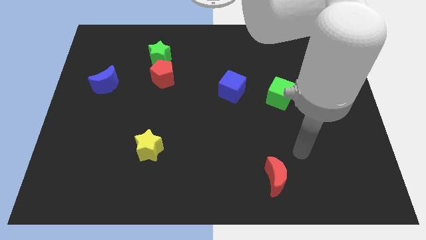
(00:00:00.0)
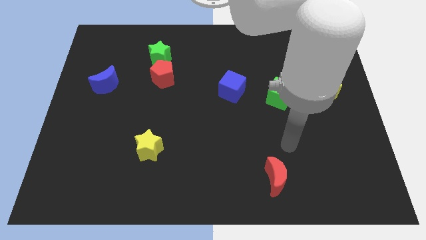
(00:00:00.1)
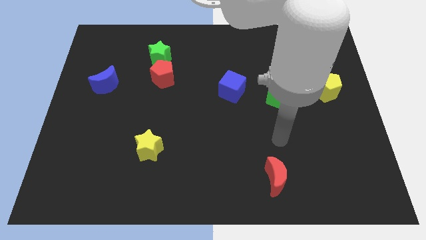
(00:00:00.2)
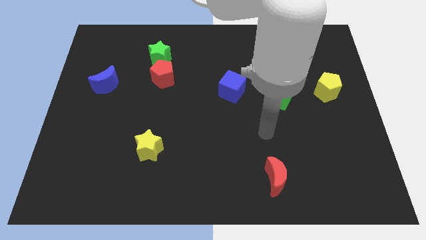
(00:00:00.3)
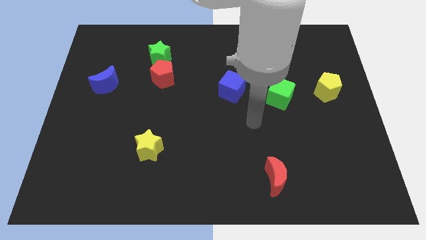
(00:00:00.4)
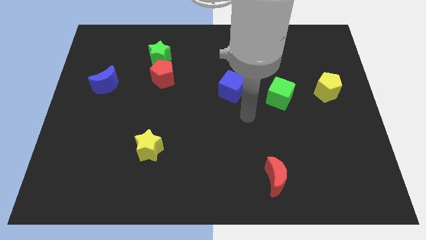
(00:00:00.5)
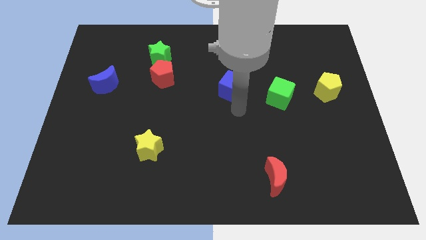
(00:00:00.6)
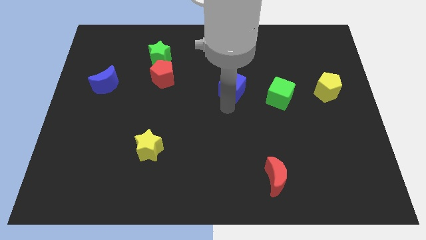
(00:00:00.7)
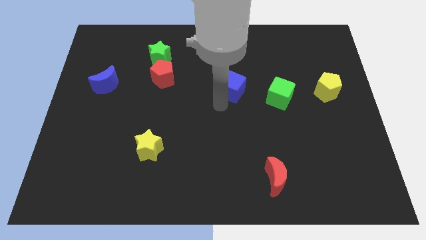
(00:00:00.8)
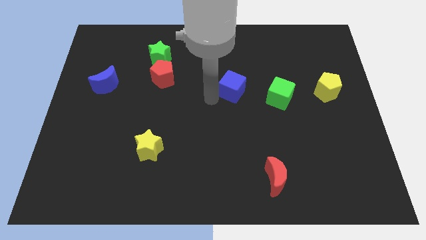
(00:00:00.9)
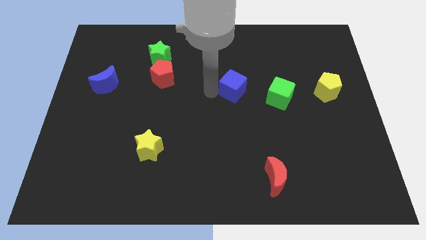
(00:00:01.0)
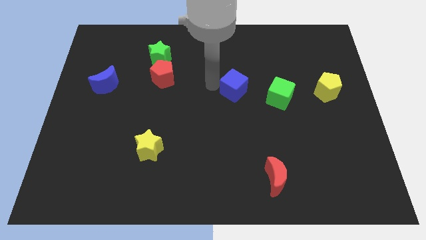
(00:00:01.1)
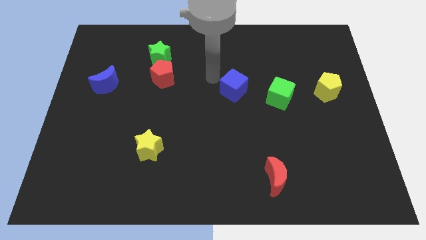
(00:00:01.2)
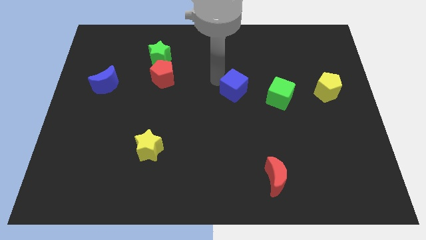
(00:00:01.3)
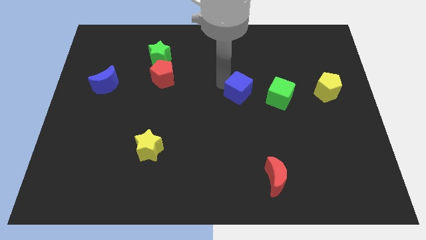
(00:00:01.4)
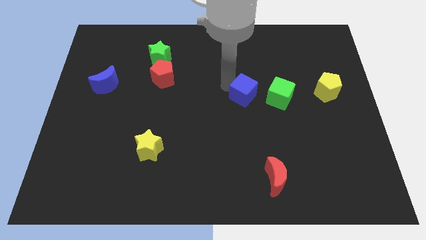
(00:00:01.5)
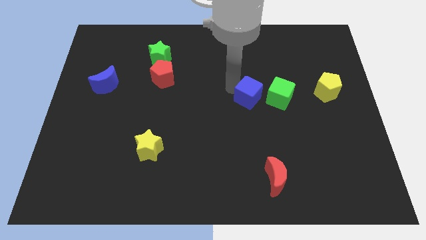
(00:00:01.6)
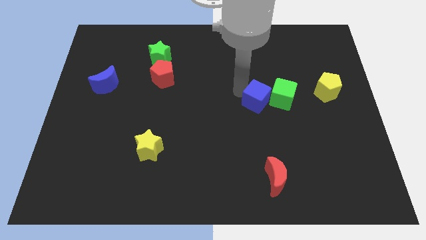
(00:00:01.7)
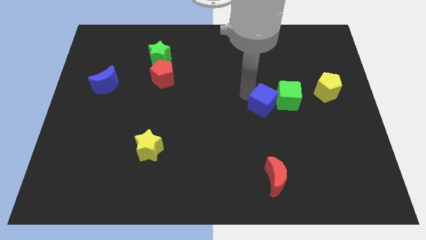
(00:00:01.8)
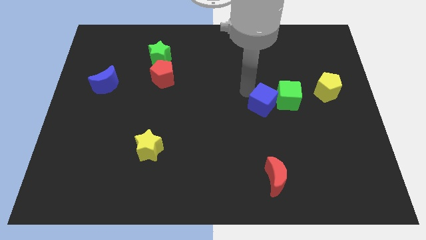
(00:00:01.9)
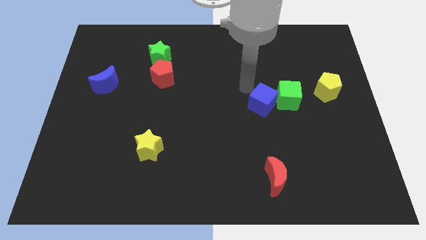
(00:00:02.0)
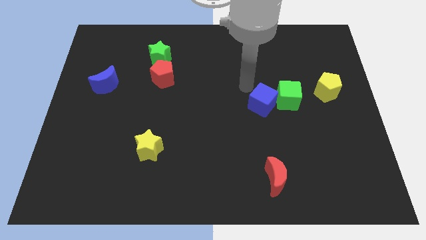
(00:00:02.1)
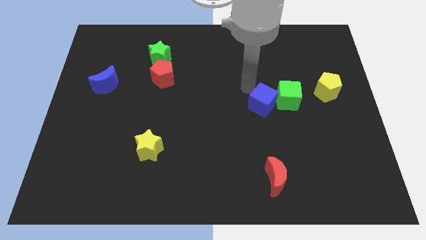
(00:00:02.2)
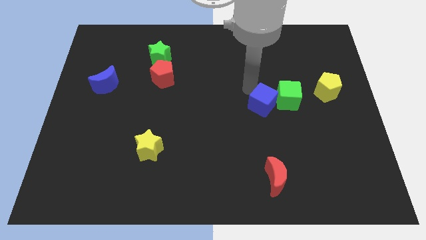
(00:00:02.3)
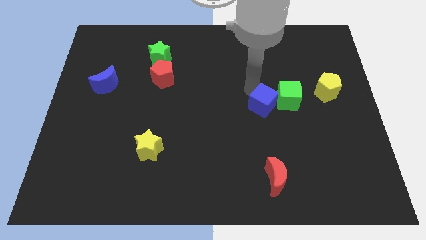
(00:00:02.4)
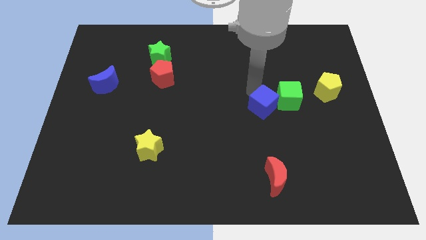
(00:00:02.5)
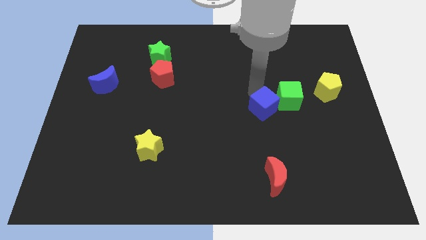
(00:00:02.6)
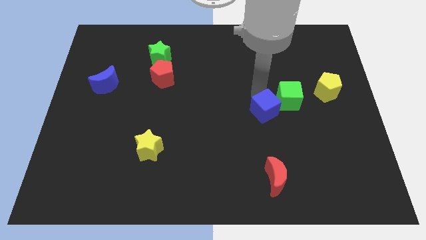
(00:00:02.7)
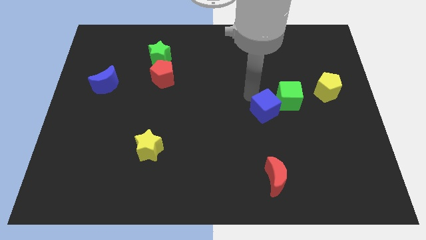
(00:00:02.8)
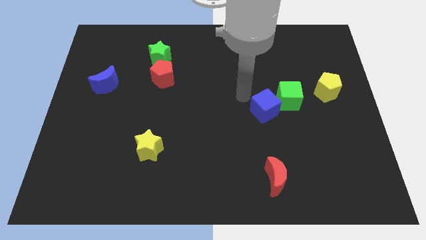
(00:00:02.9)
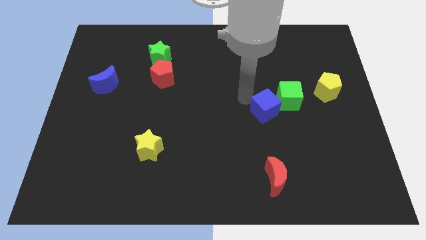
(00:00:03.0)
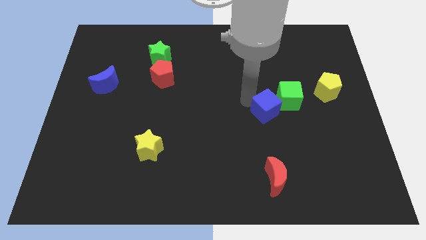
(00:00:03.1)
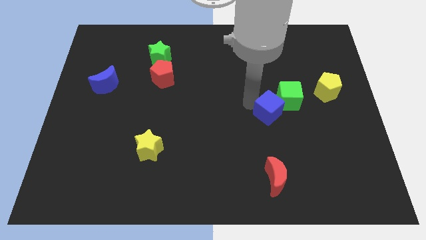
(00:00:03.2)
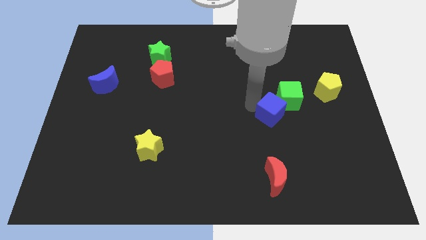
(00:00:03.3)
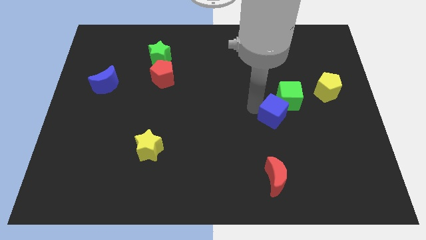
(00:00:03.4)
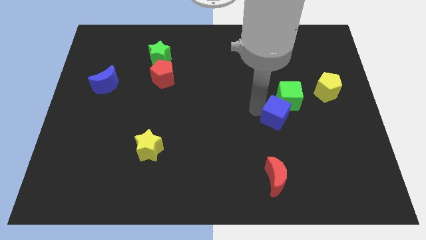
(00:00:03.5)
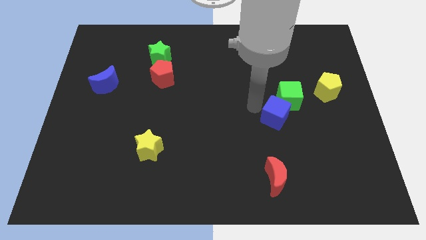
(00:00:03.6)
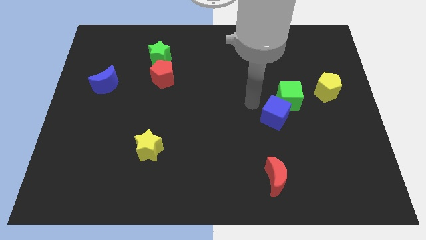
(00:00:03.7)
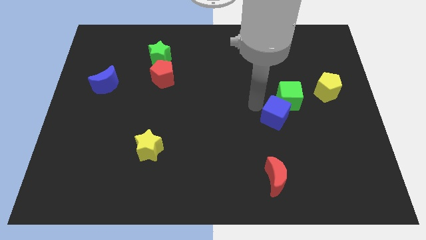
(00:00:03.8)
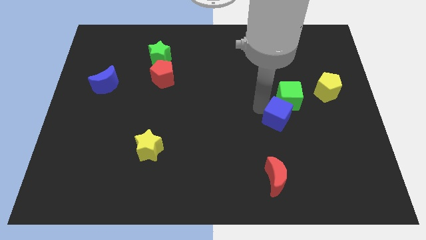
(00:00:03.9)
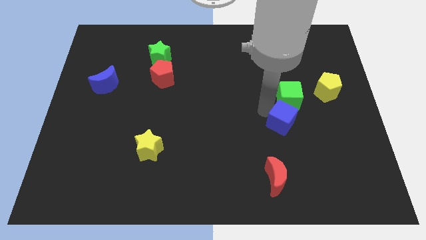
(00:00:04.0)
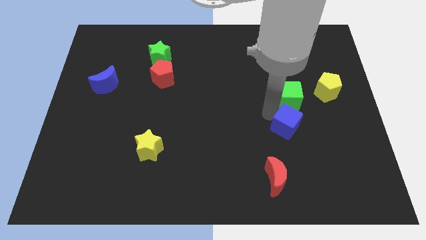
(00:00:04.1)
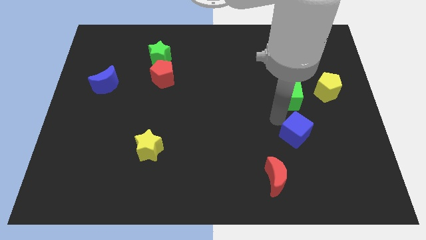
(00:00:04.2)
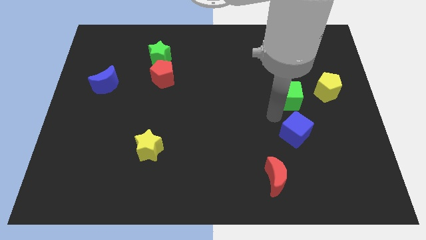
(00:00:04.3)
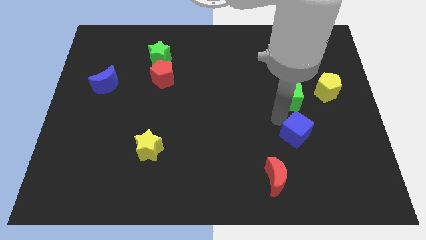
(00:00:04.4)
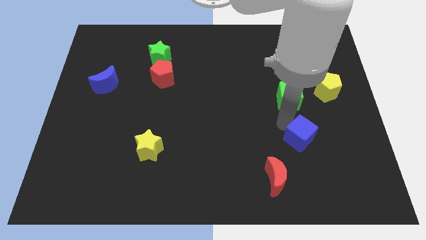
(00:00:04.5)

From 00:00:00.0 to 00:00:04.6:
slide the blue cube down and right

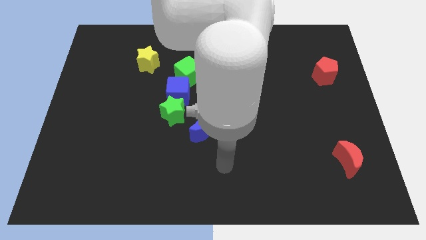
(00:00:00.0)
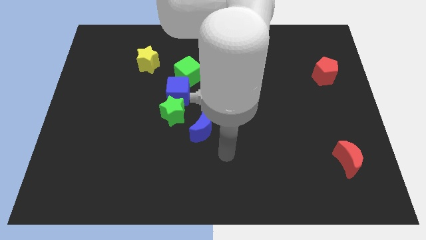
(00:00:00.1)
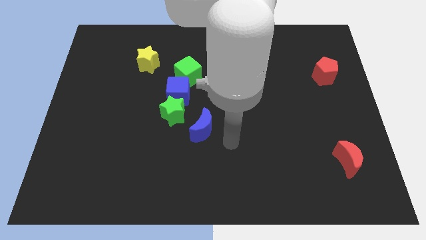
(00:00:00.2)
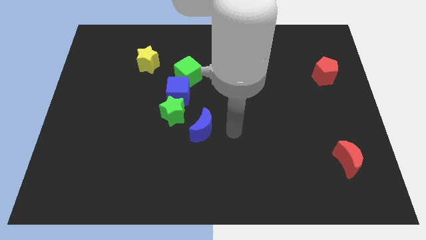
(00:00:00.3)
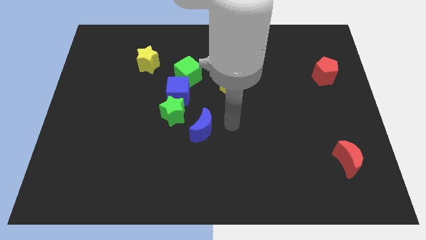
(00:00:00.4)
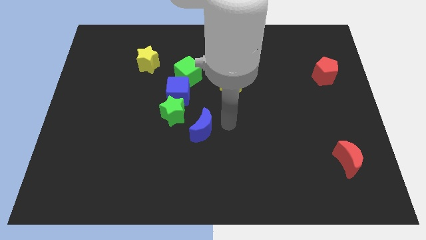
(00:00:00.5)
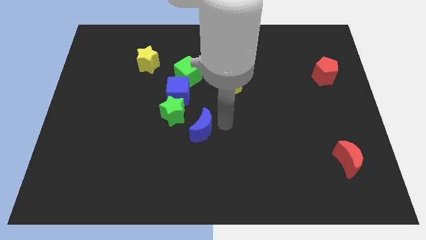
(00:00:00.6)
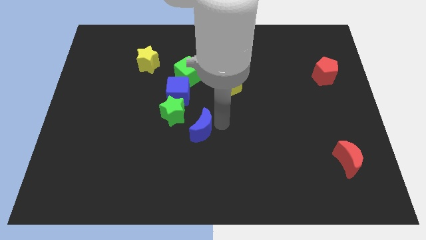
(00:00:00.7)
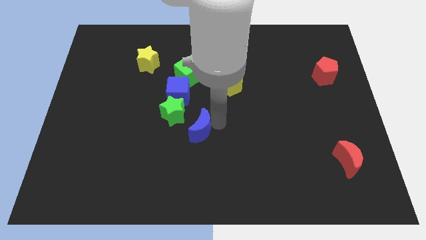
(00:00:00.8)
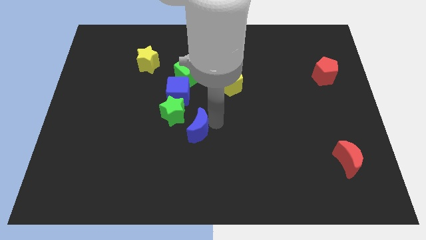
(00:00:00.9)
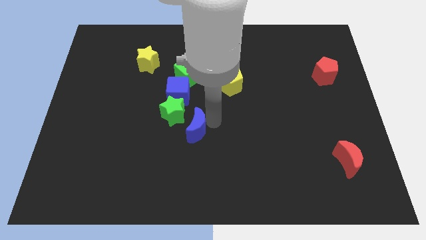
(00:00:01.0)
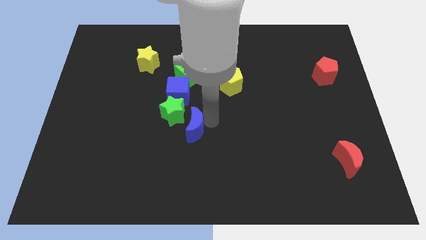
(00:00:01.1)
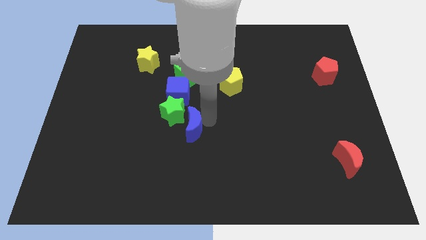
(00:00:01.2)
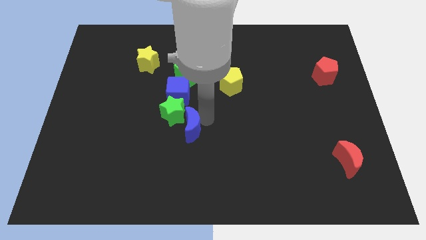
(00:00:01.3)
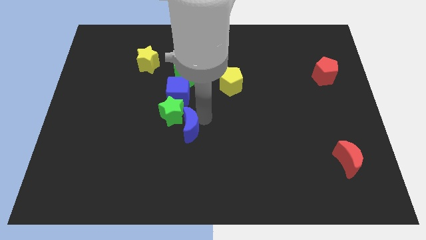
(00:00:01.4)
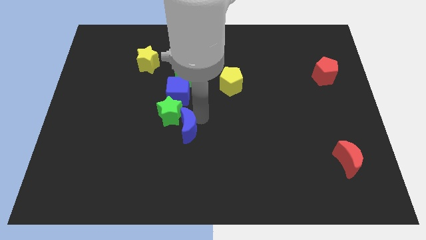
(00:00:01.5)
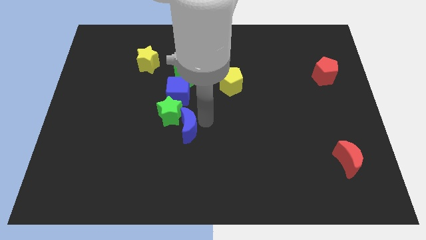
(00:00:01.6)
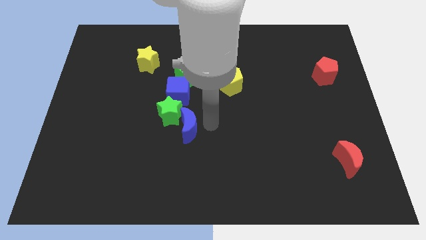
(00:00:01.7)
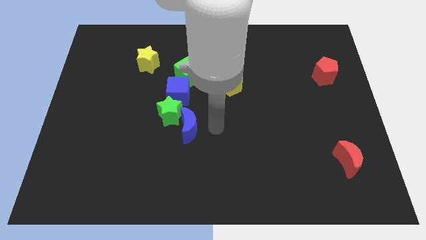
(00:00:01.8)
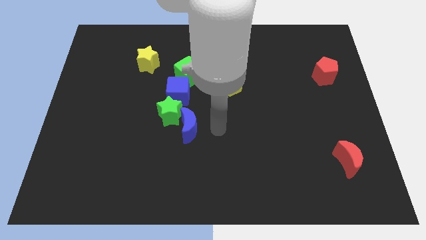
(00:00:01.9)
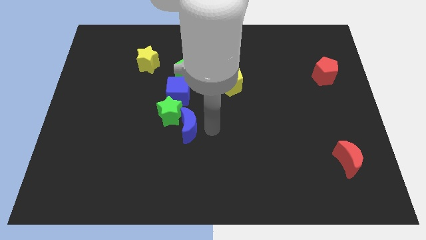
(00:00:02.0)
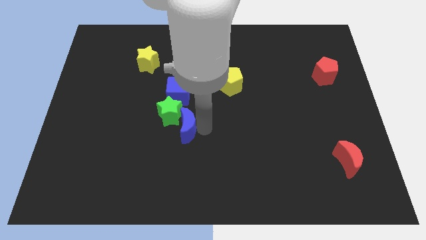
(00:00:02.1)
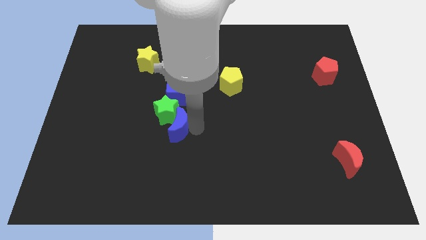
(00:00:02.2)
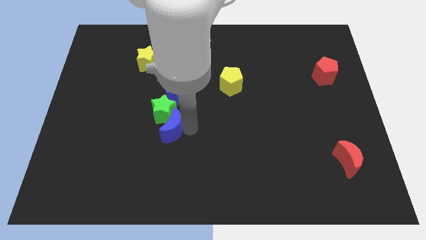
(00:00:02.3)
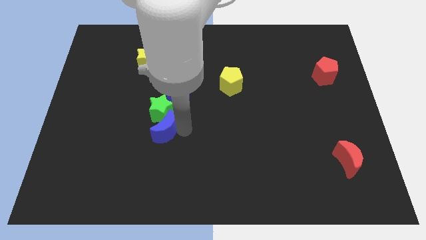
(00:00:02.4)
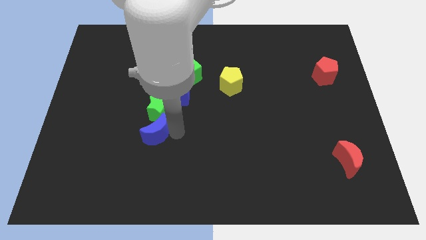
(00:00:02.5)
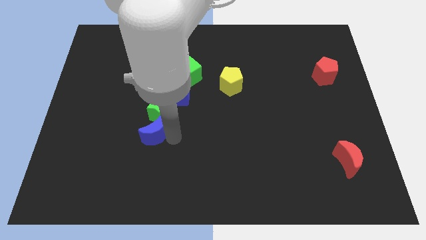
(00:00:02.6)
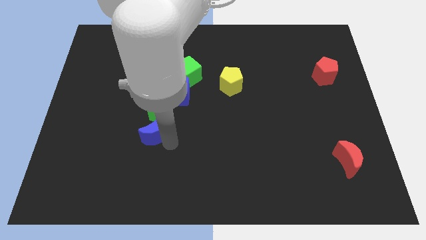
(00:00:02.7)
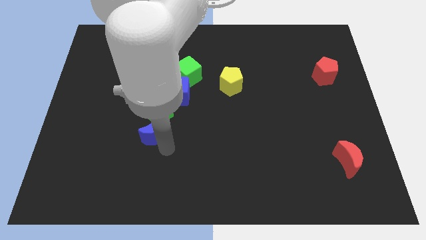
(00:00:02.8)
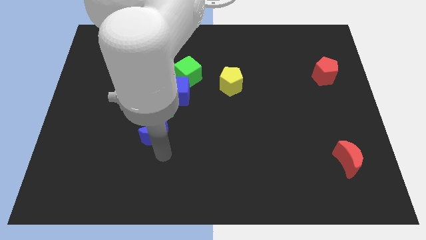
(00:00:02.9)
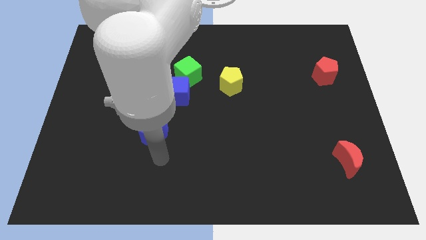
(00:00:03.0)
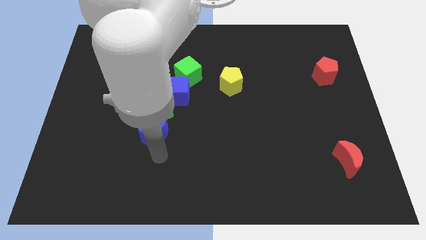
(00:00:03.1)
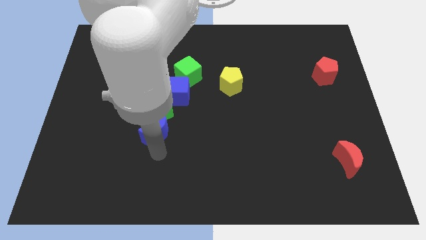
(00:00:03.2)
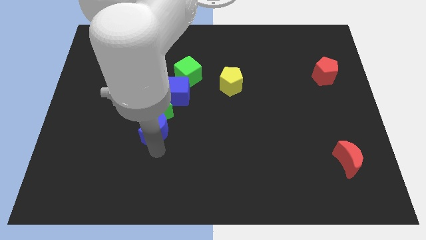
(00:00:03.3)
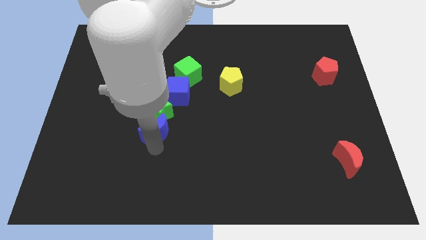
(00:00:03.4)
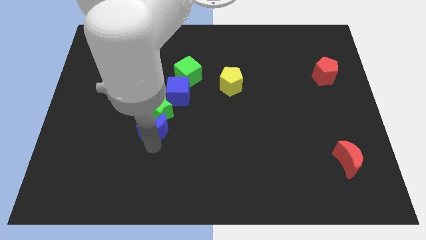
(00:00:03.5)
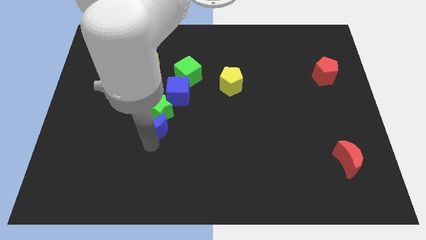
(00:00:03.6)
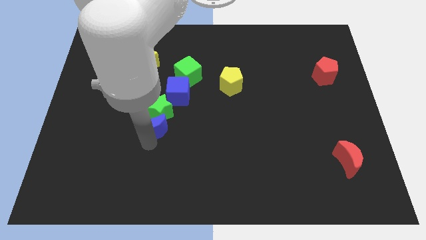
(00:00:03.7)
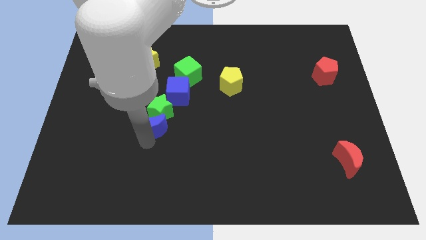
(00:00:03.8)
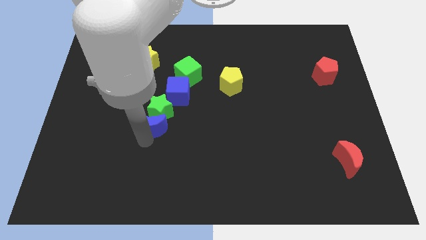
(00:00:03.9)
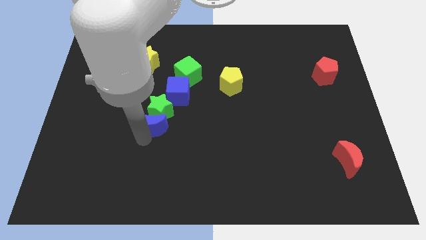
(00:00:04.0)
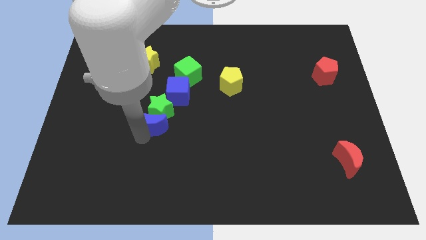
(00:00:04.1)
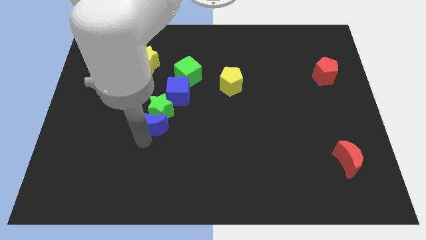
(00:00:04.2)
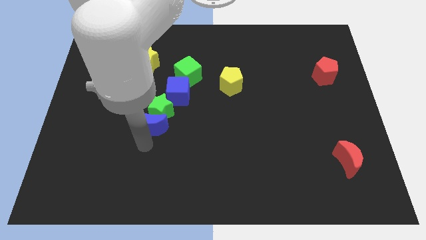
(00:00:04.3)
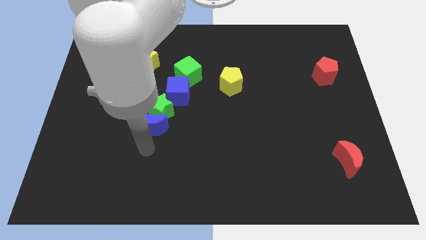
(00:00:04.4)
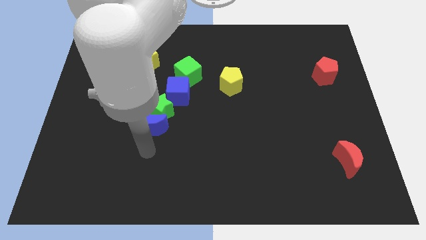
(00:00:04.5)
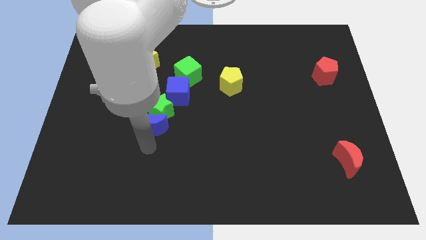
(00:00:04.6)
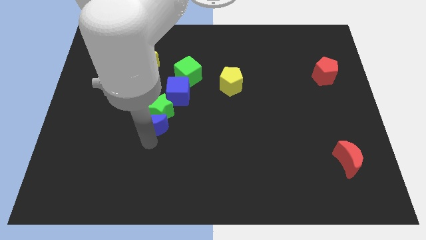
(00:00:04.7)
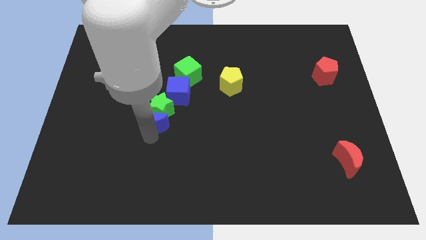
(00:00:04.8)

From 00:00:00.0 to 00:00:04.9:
move the blue moon up and then left somewhat
